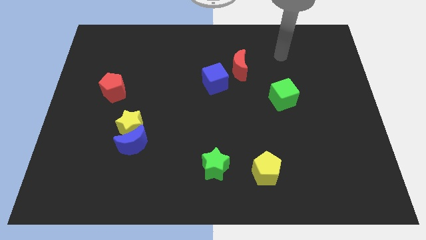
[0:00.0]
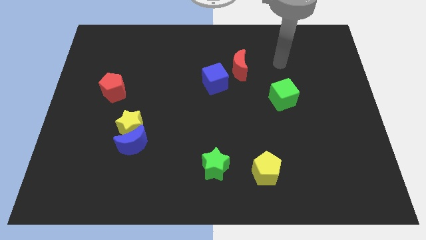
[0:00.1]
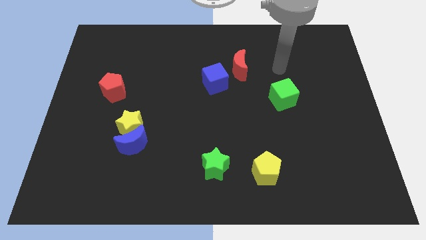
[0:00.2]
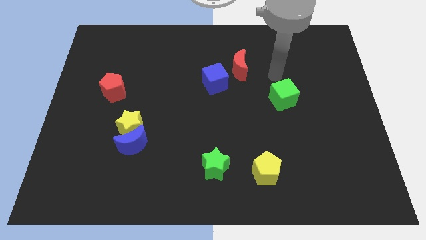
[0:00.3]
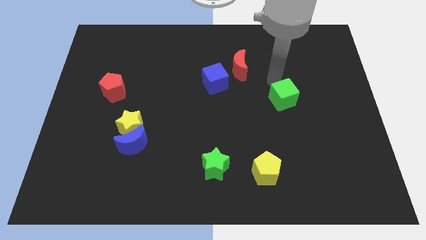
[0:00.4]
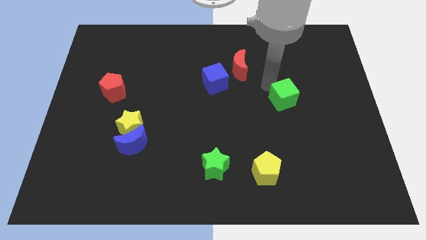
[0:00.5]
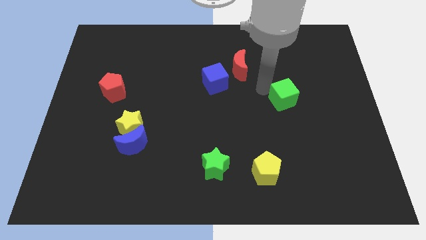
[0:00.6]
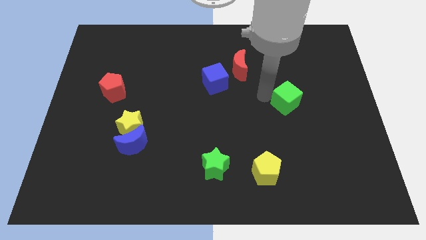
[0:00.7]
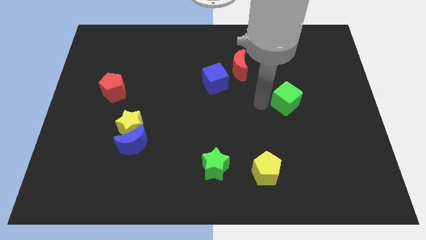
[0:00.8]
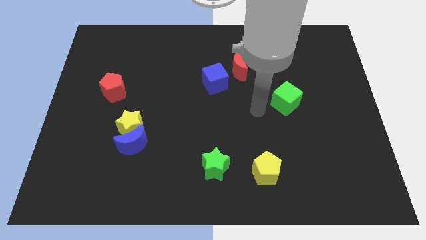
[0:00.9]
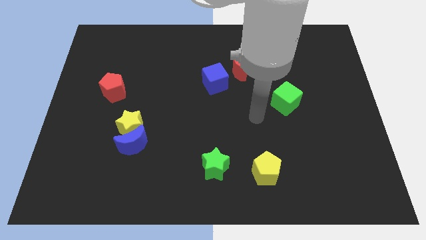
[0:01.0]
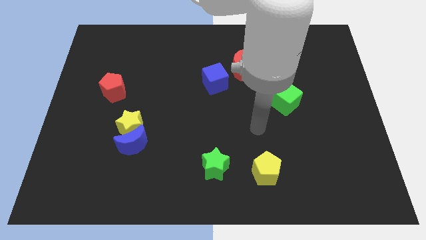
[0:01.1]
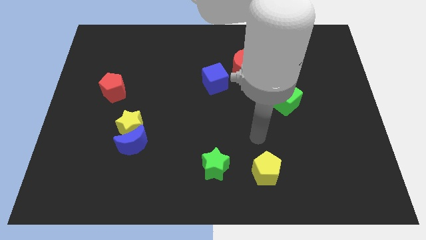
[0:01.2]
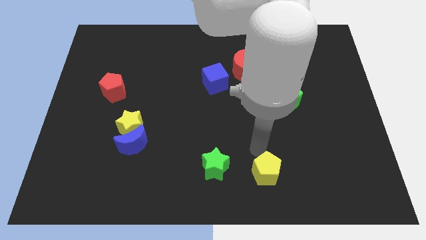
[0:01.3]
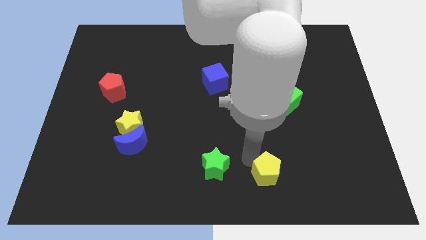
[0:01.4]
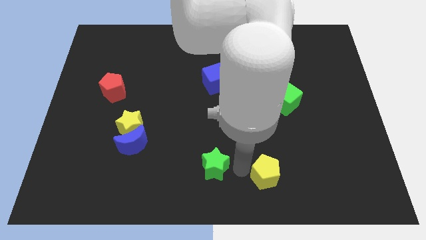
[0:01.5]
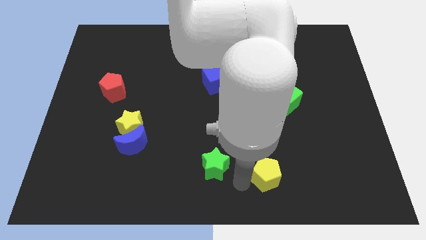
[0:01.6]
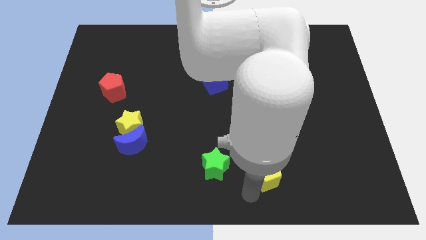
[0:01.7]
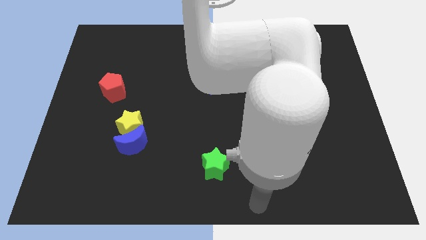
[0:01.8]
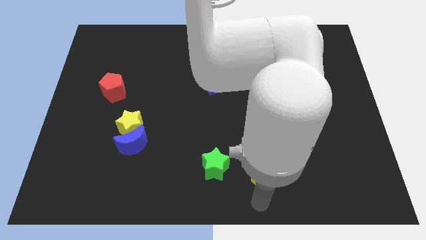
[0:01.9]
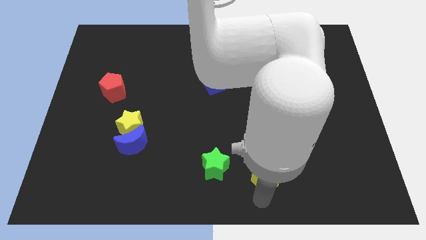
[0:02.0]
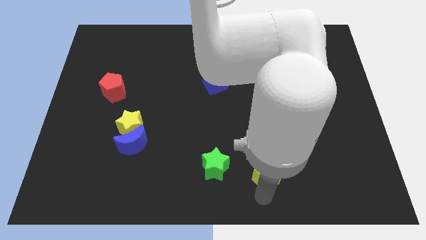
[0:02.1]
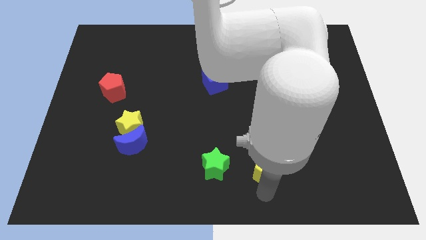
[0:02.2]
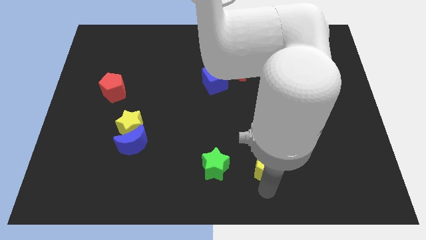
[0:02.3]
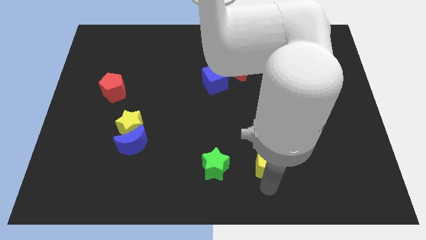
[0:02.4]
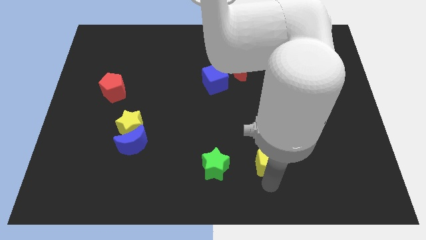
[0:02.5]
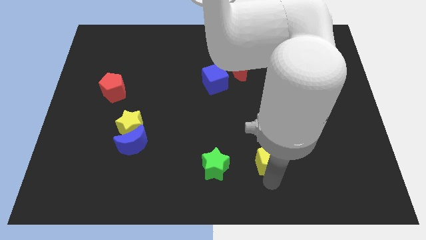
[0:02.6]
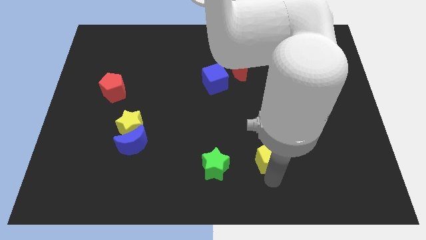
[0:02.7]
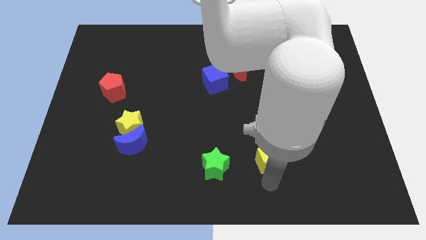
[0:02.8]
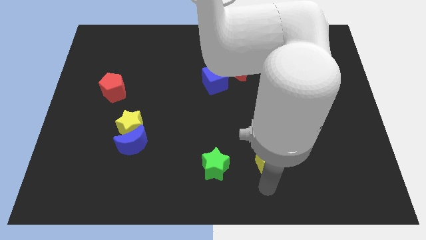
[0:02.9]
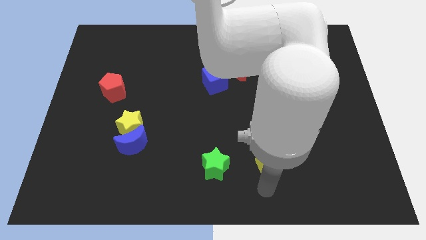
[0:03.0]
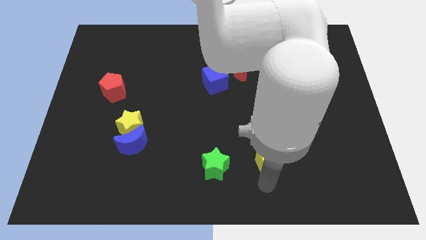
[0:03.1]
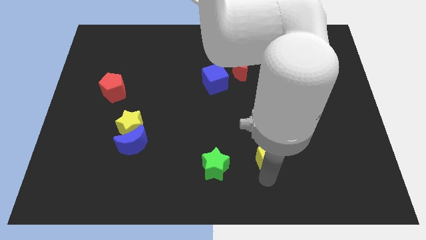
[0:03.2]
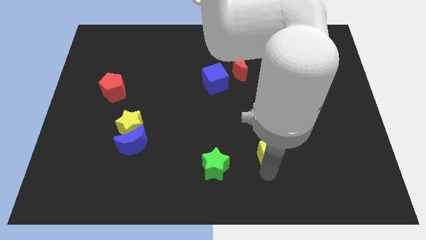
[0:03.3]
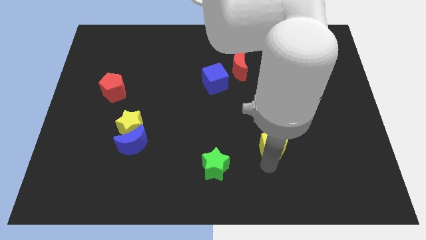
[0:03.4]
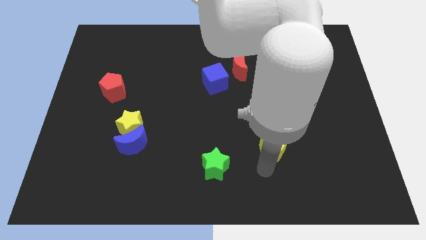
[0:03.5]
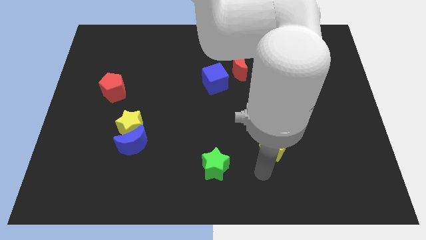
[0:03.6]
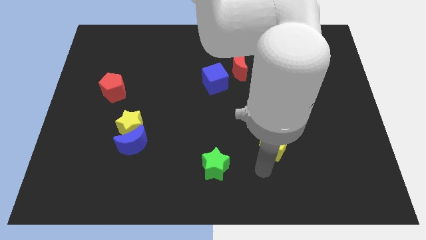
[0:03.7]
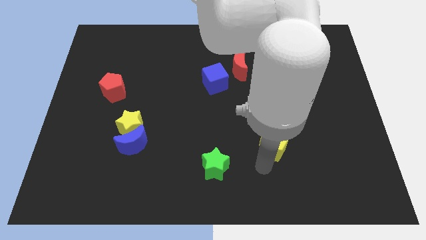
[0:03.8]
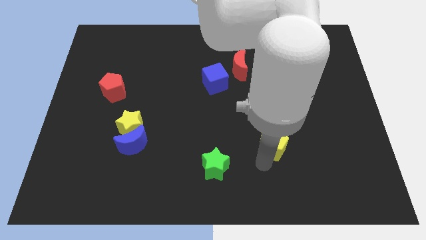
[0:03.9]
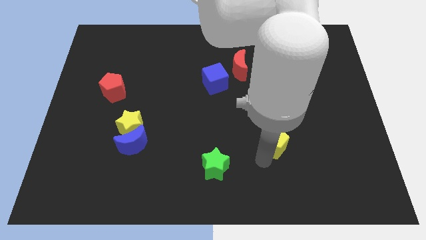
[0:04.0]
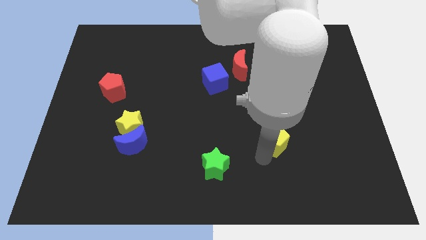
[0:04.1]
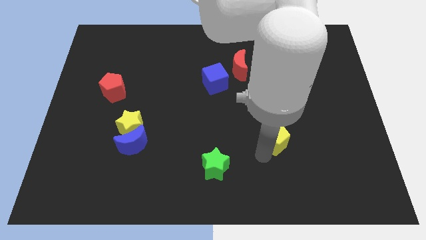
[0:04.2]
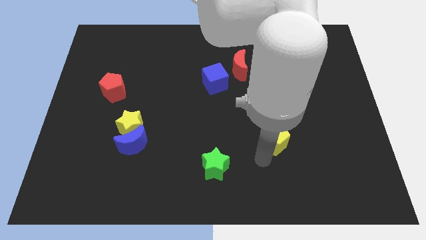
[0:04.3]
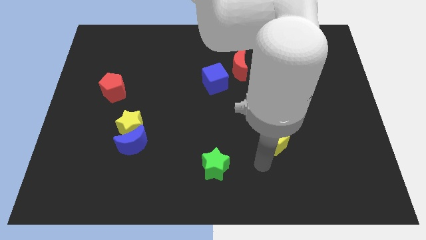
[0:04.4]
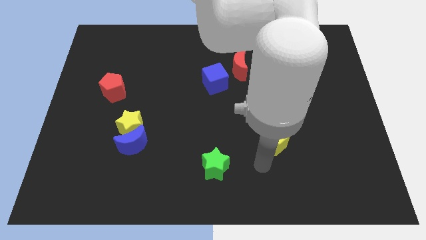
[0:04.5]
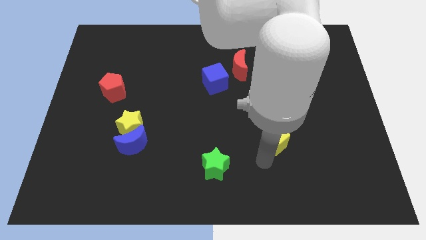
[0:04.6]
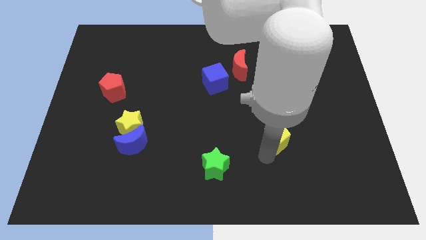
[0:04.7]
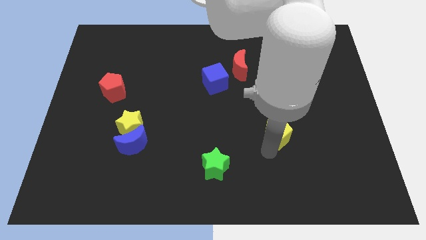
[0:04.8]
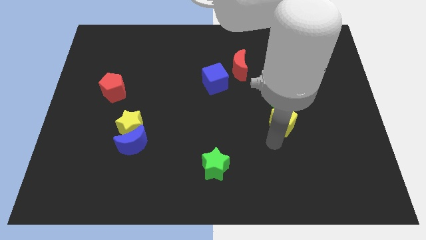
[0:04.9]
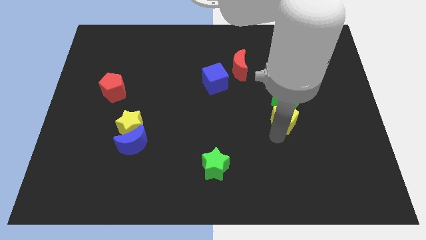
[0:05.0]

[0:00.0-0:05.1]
move the yellow pentagon next to the green cube

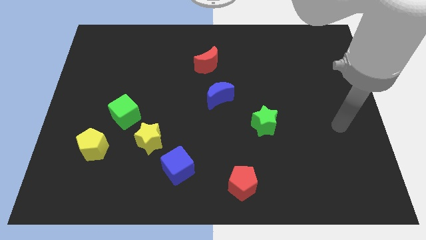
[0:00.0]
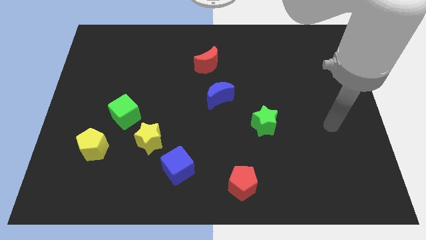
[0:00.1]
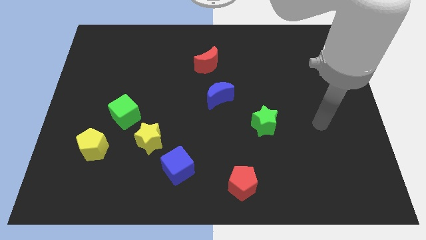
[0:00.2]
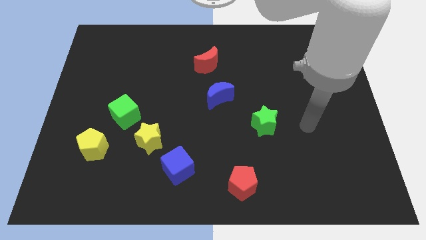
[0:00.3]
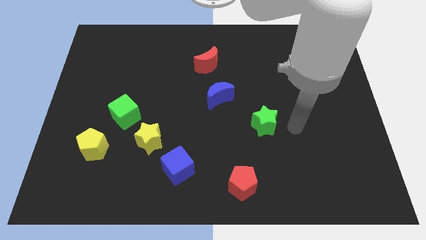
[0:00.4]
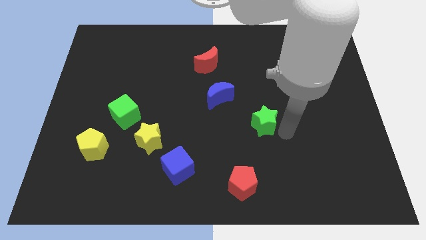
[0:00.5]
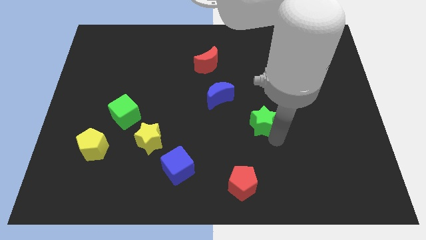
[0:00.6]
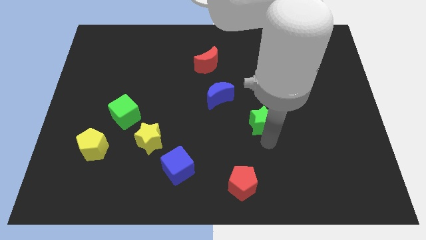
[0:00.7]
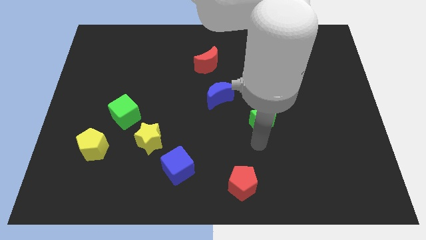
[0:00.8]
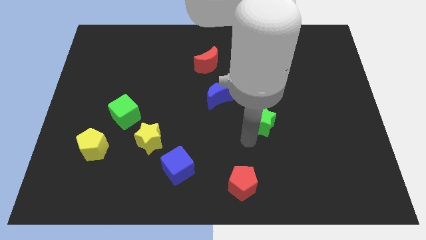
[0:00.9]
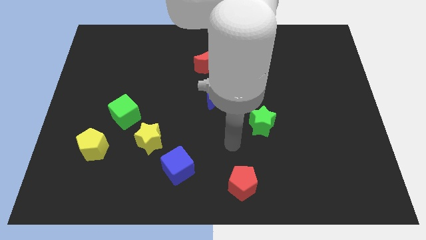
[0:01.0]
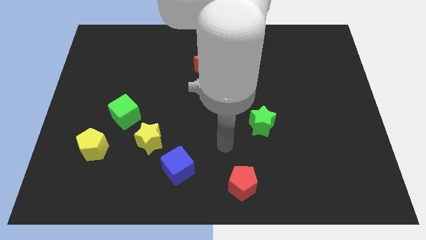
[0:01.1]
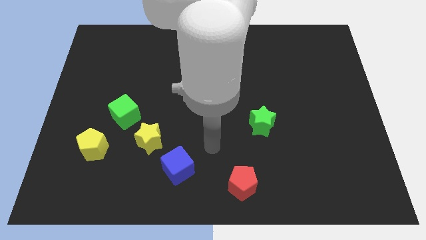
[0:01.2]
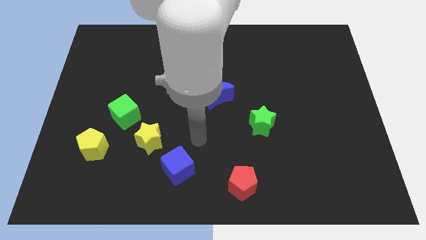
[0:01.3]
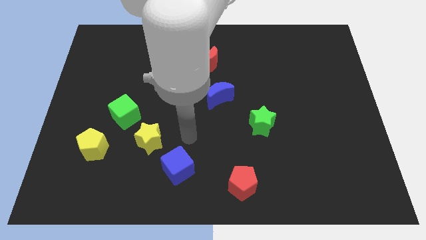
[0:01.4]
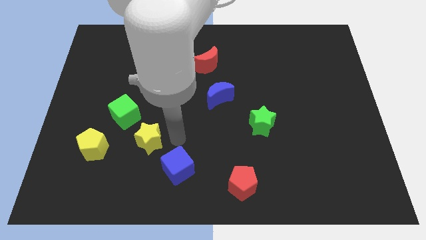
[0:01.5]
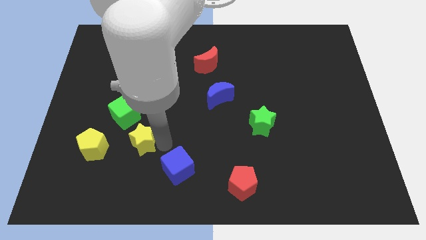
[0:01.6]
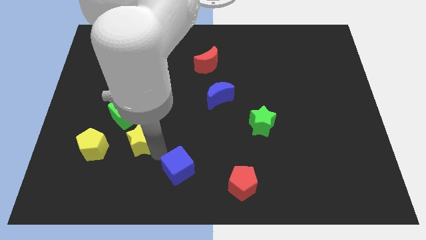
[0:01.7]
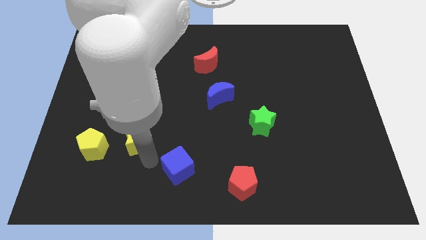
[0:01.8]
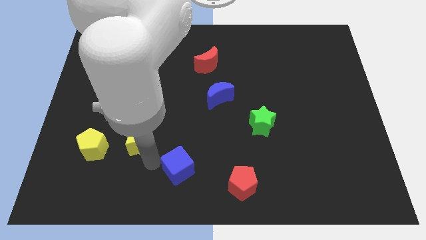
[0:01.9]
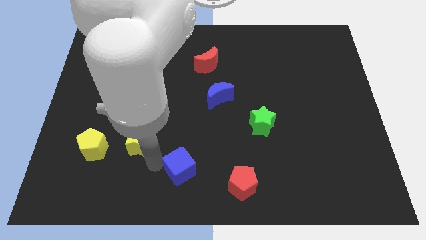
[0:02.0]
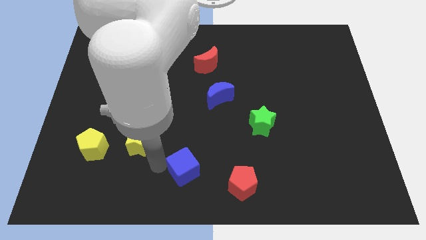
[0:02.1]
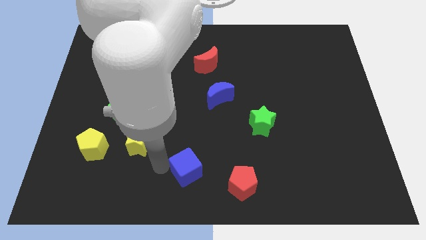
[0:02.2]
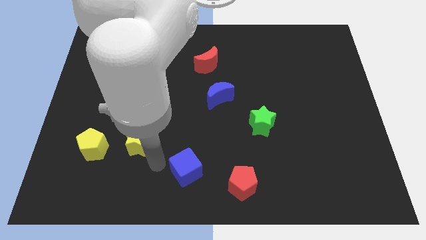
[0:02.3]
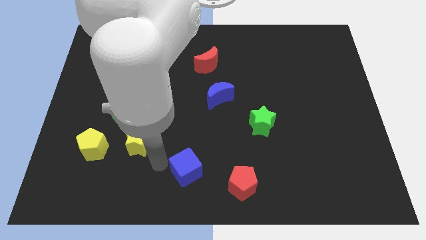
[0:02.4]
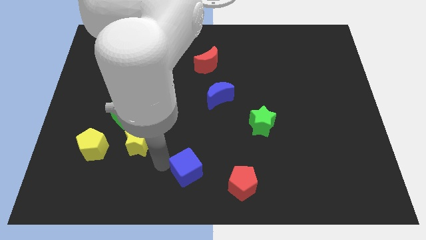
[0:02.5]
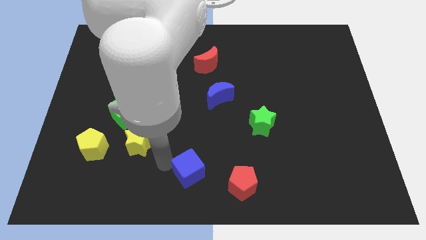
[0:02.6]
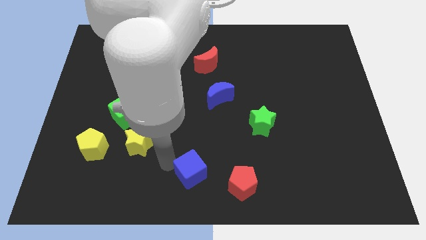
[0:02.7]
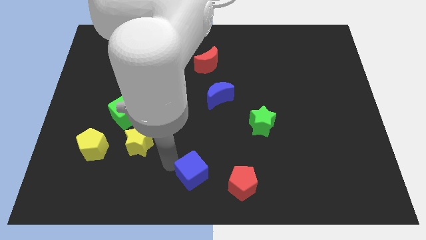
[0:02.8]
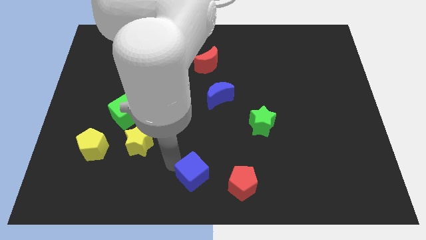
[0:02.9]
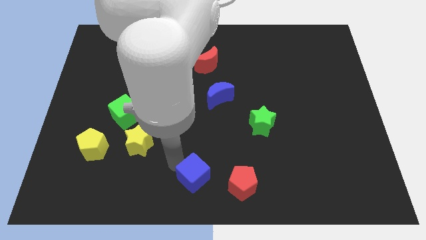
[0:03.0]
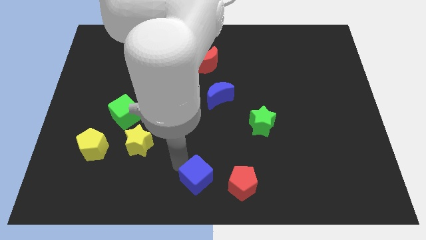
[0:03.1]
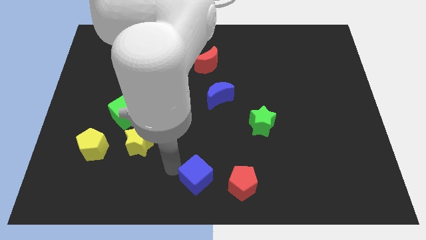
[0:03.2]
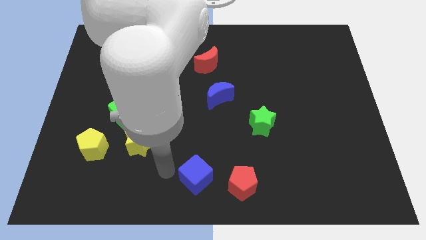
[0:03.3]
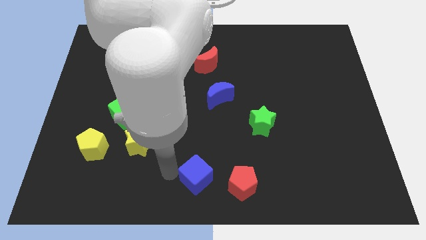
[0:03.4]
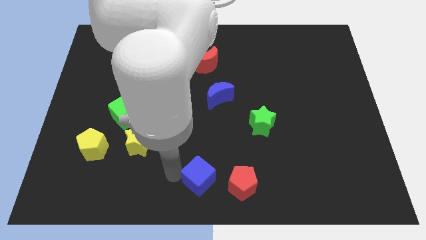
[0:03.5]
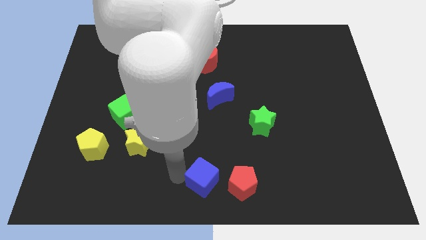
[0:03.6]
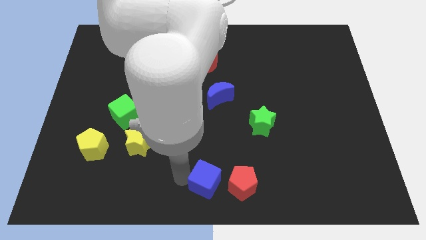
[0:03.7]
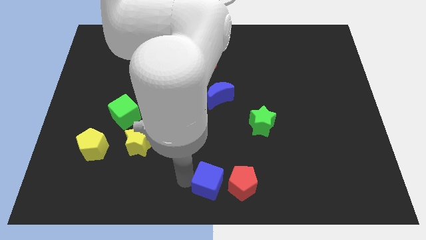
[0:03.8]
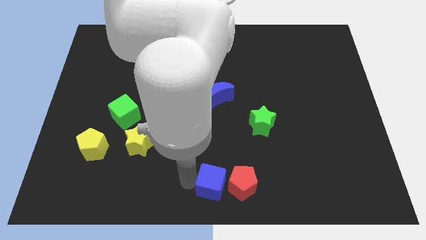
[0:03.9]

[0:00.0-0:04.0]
slide the blue cube close to the red pentagon
